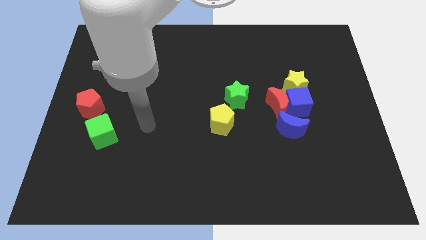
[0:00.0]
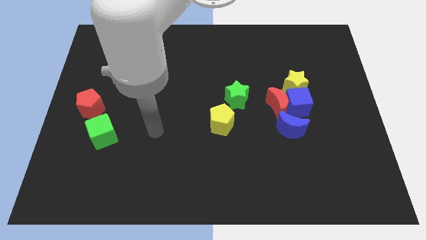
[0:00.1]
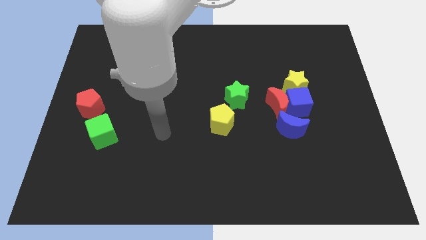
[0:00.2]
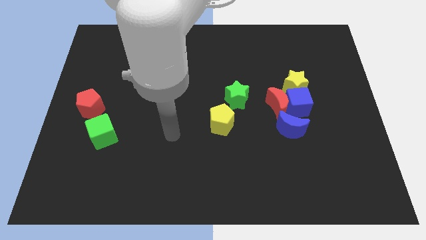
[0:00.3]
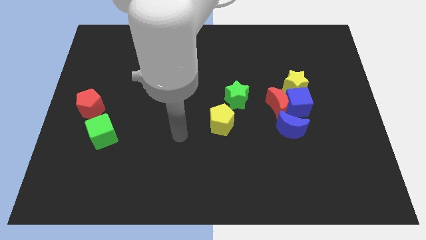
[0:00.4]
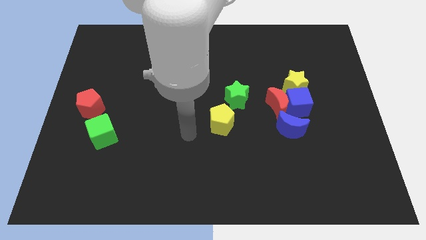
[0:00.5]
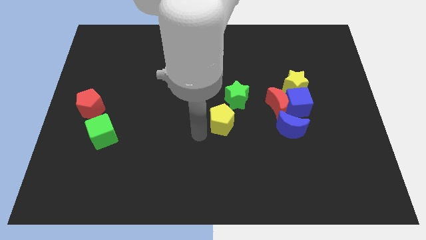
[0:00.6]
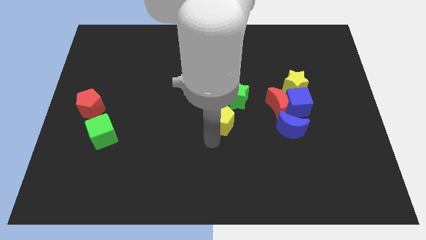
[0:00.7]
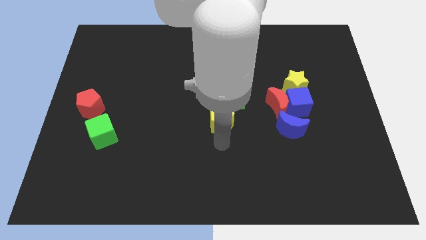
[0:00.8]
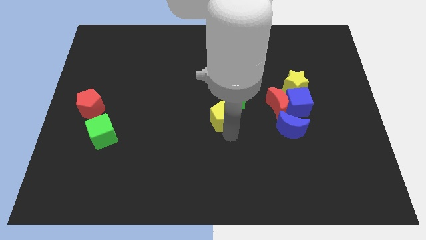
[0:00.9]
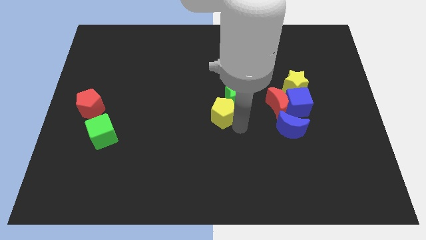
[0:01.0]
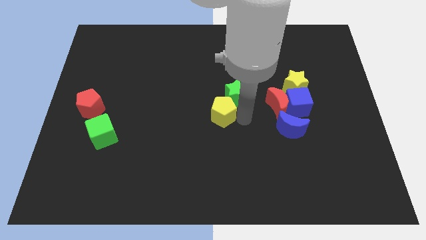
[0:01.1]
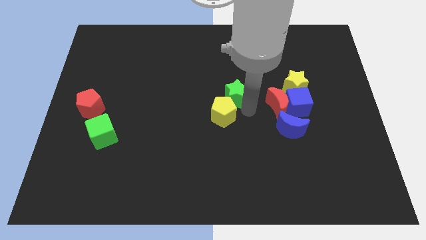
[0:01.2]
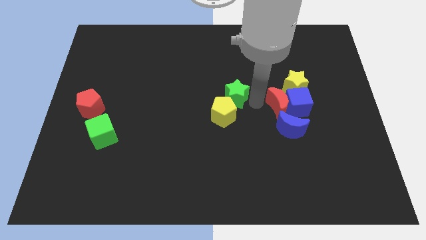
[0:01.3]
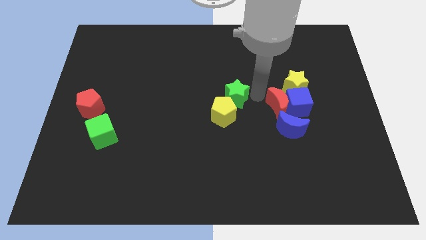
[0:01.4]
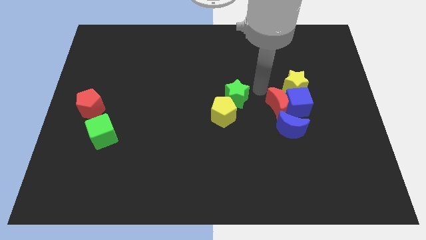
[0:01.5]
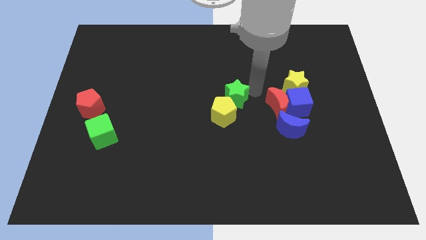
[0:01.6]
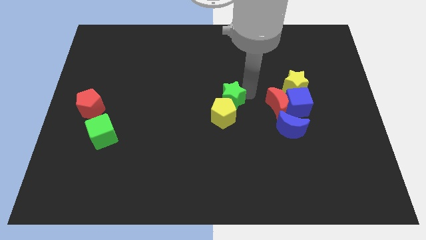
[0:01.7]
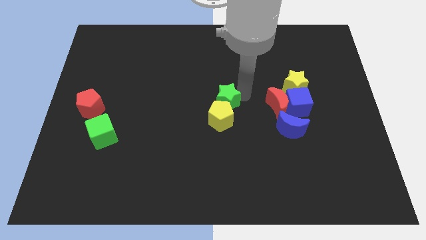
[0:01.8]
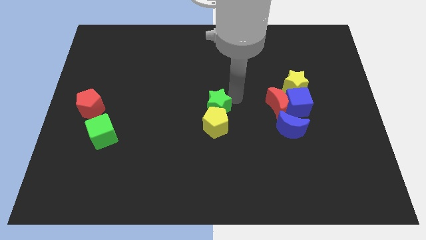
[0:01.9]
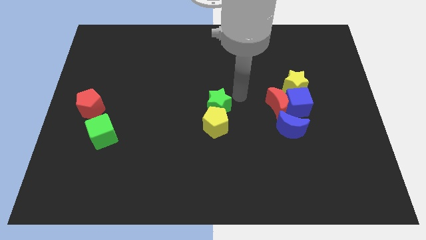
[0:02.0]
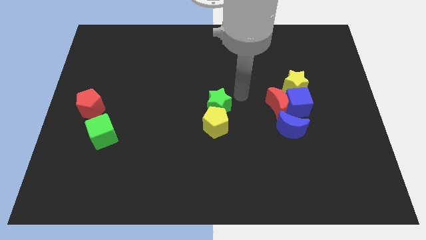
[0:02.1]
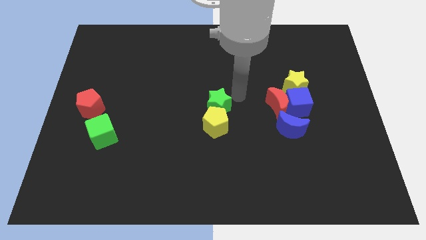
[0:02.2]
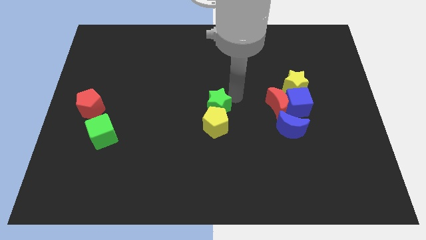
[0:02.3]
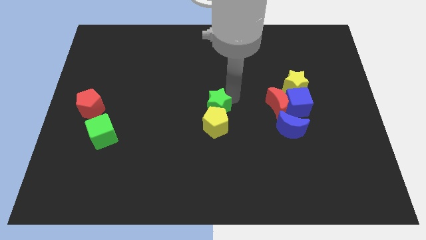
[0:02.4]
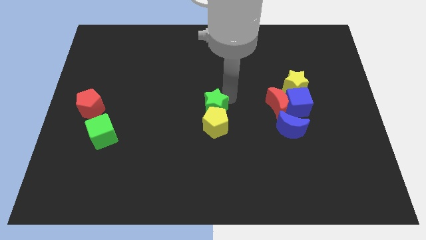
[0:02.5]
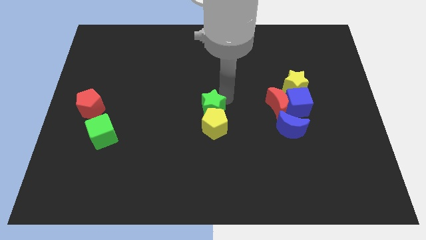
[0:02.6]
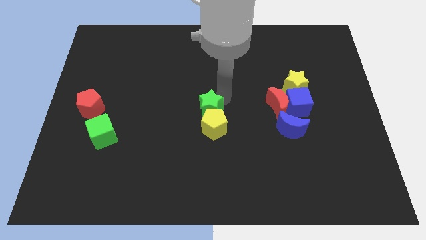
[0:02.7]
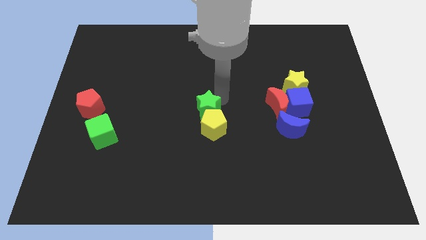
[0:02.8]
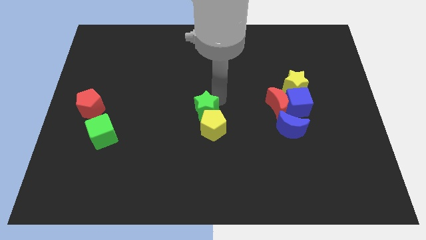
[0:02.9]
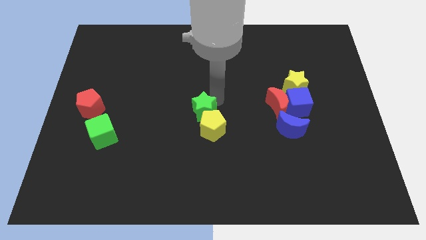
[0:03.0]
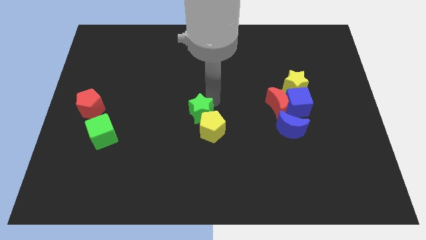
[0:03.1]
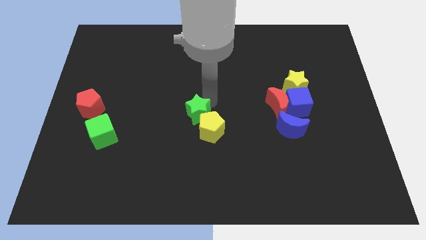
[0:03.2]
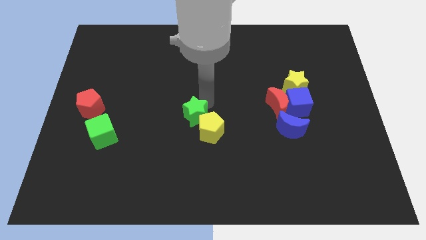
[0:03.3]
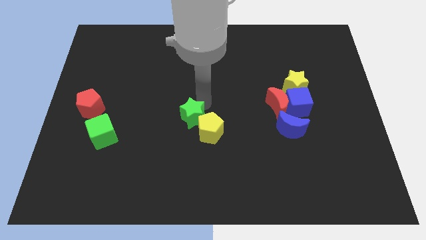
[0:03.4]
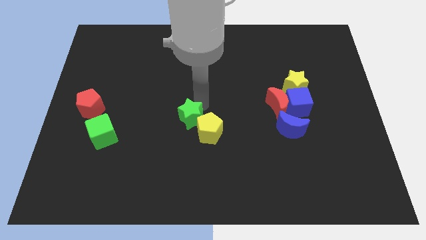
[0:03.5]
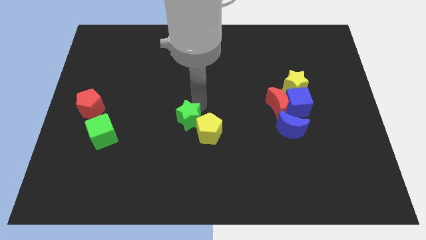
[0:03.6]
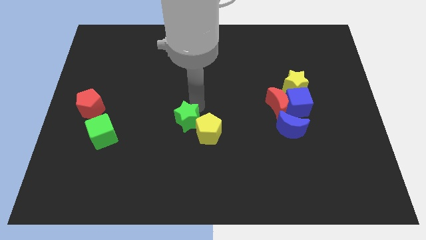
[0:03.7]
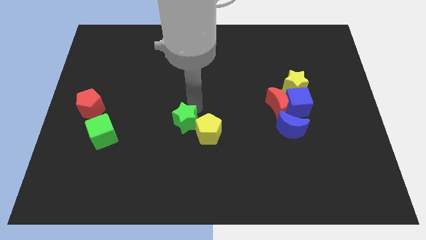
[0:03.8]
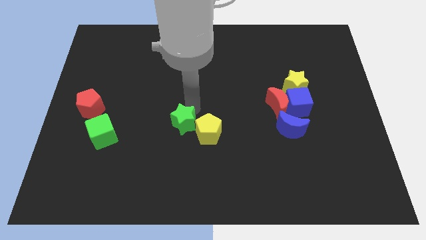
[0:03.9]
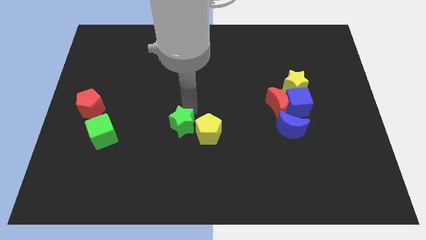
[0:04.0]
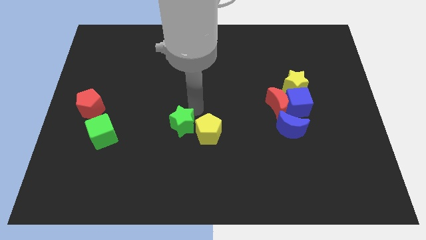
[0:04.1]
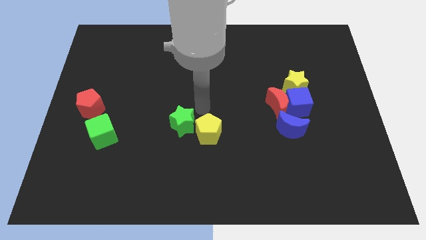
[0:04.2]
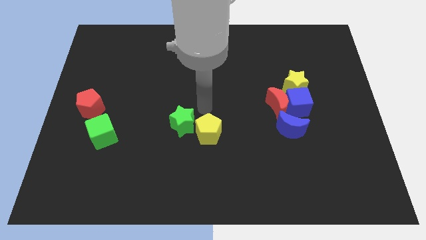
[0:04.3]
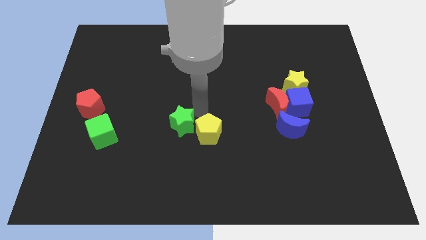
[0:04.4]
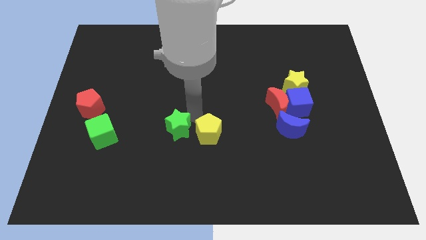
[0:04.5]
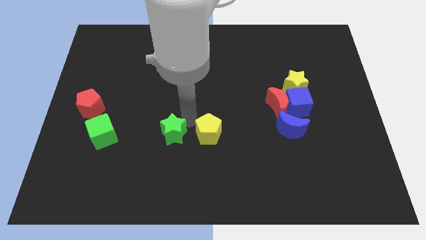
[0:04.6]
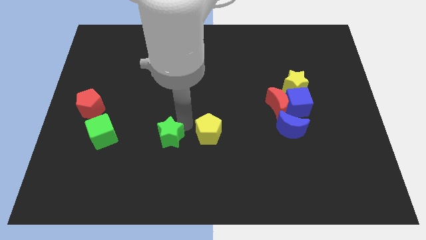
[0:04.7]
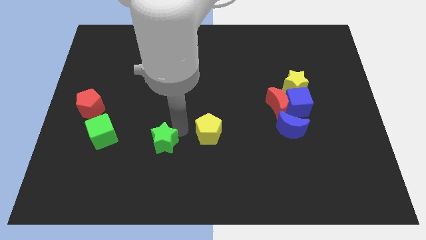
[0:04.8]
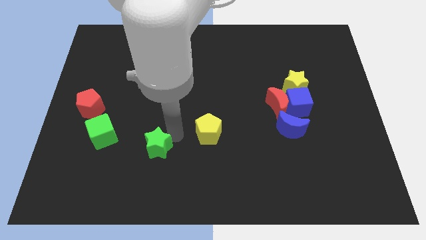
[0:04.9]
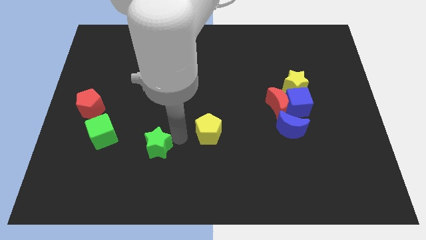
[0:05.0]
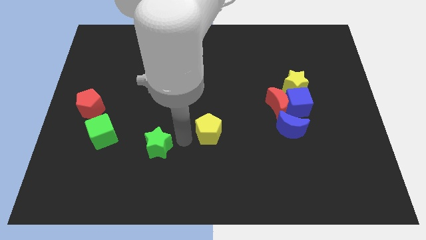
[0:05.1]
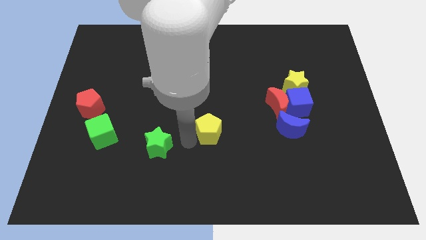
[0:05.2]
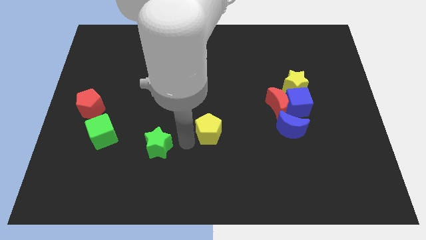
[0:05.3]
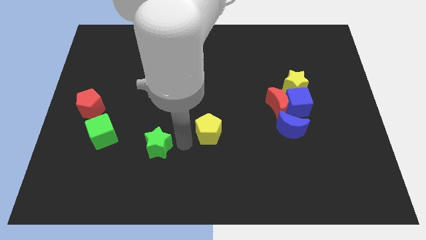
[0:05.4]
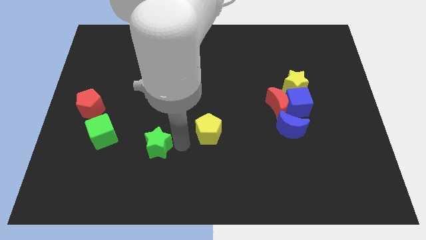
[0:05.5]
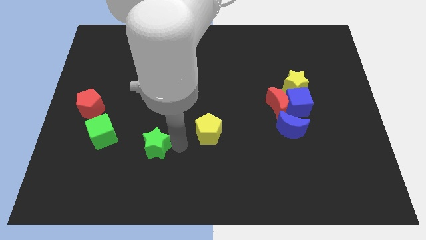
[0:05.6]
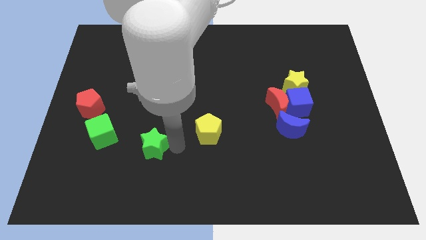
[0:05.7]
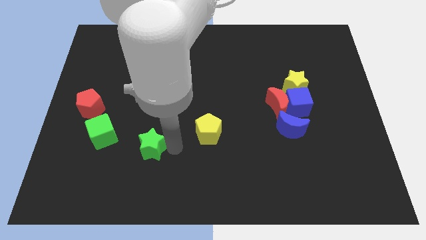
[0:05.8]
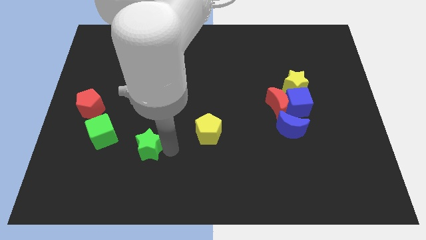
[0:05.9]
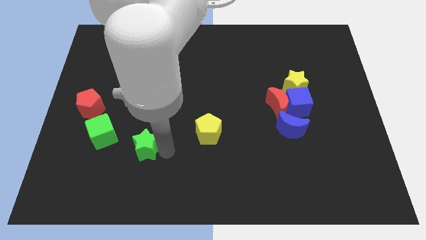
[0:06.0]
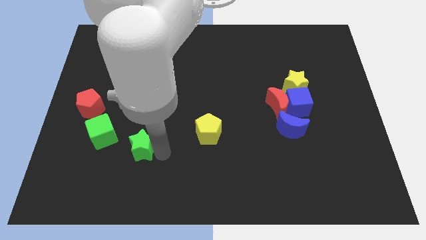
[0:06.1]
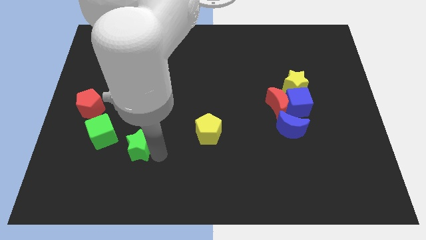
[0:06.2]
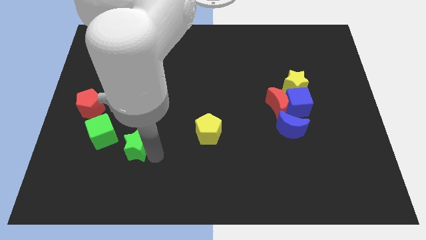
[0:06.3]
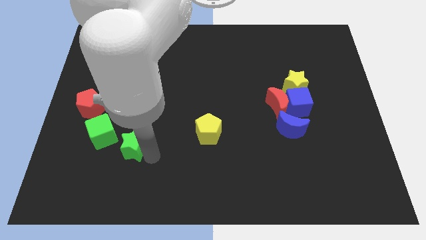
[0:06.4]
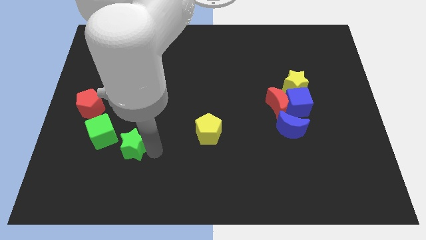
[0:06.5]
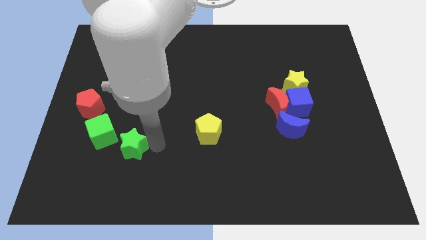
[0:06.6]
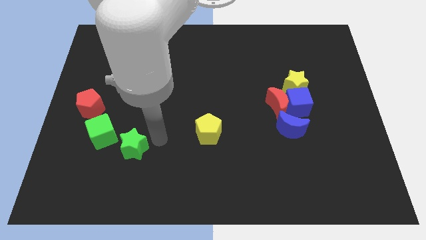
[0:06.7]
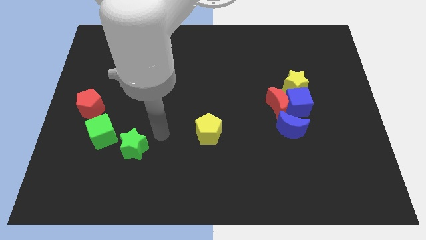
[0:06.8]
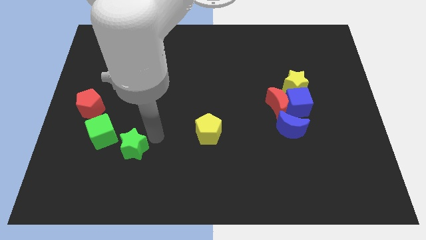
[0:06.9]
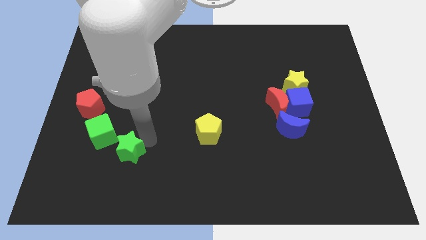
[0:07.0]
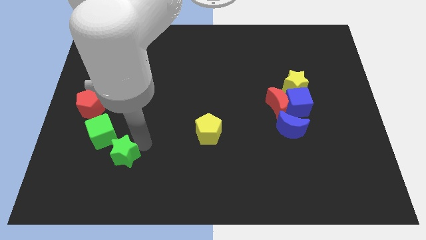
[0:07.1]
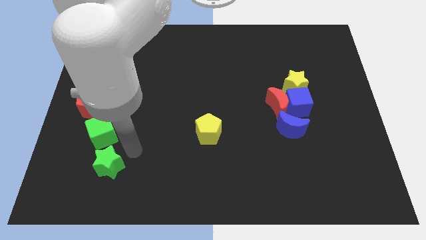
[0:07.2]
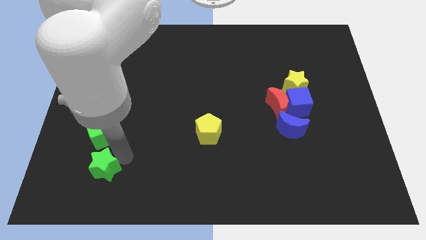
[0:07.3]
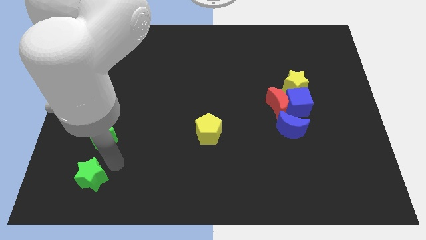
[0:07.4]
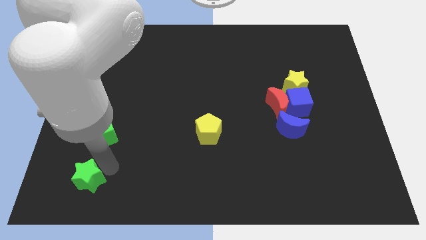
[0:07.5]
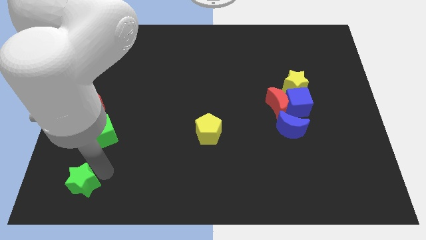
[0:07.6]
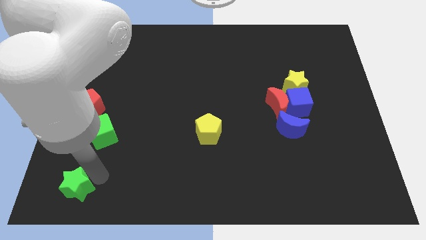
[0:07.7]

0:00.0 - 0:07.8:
slide the green star to the bottom left of the board
